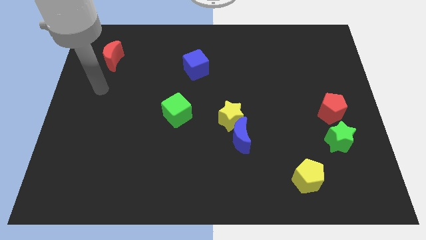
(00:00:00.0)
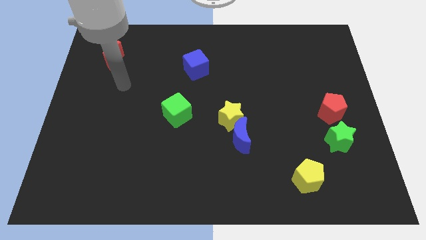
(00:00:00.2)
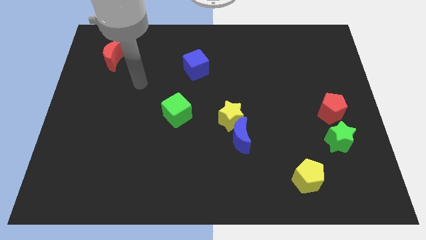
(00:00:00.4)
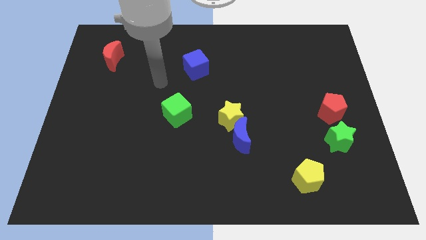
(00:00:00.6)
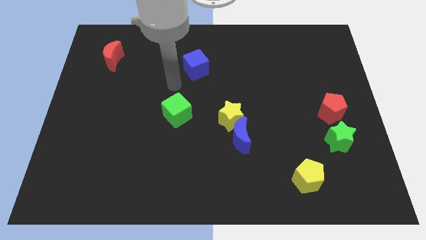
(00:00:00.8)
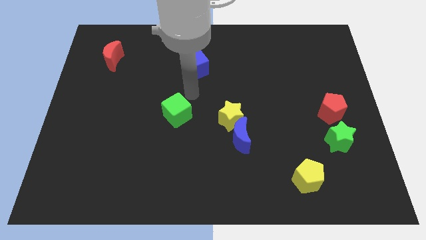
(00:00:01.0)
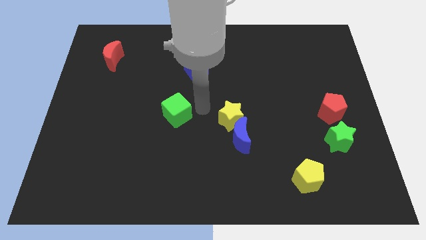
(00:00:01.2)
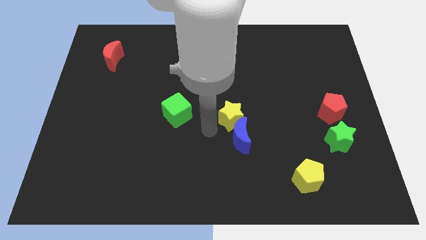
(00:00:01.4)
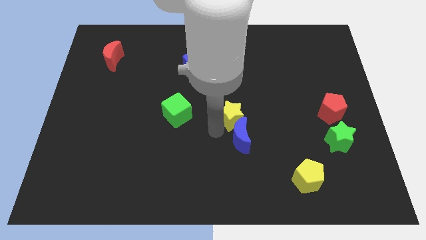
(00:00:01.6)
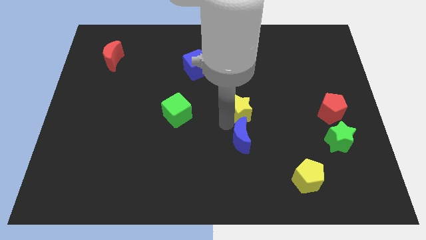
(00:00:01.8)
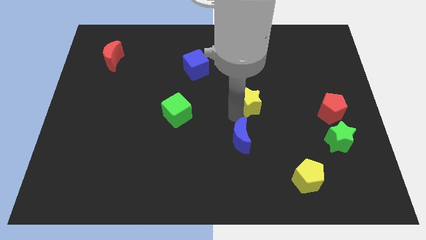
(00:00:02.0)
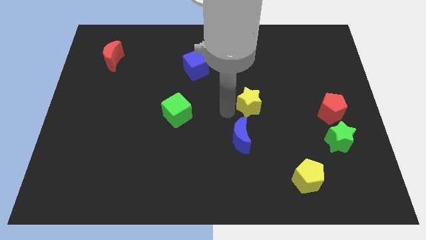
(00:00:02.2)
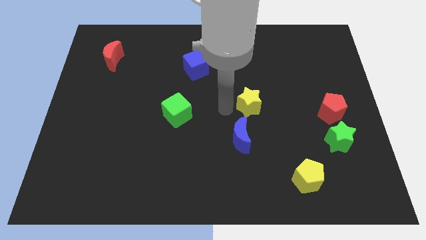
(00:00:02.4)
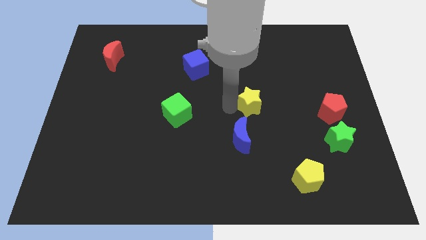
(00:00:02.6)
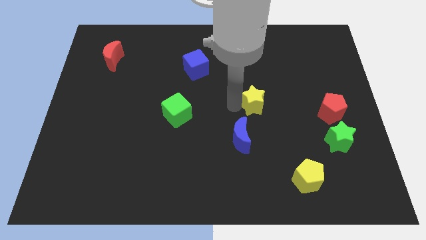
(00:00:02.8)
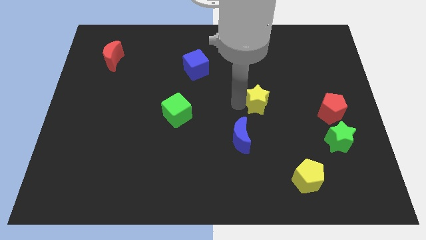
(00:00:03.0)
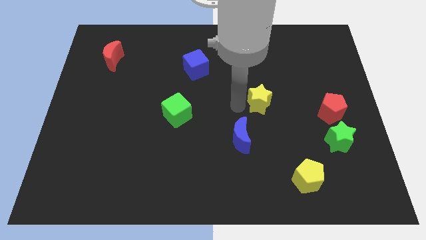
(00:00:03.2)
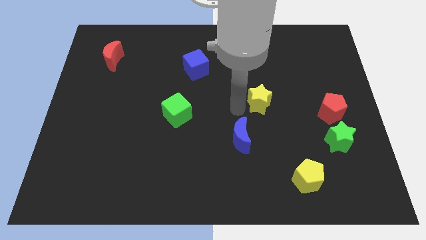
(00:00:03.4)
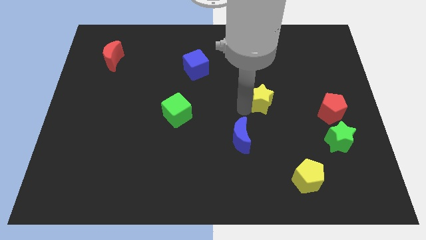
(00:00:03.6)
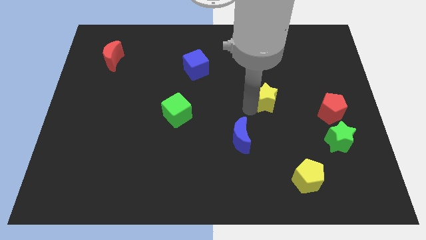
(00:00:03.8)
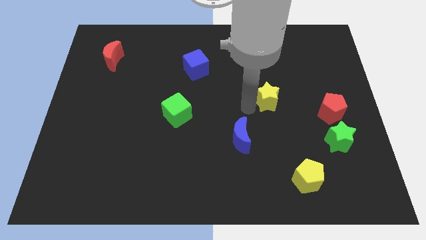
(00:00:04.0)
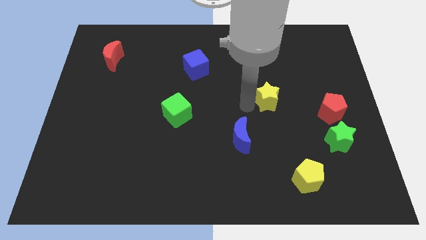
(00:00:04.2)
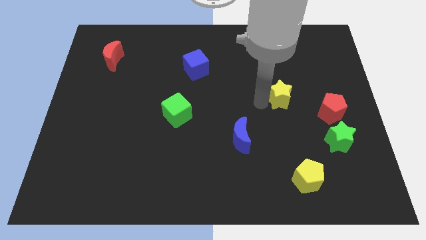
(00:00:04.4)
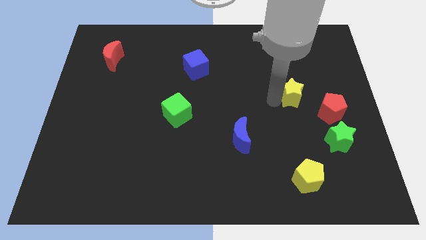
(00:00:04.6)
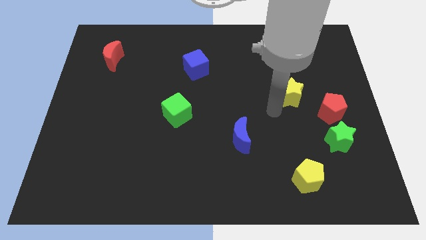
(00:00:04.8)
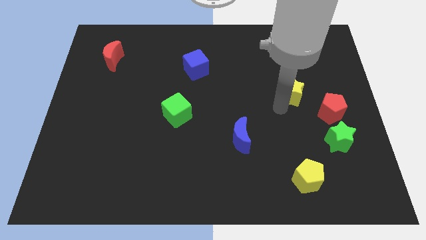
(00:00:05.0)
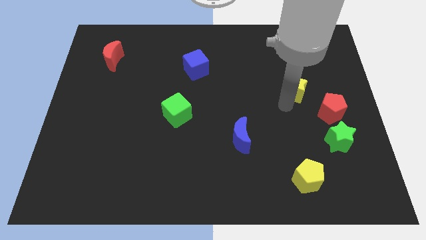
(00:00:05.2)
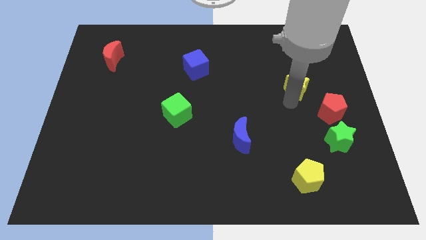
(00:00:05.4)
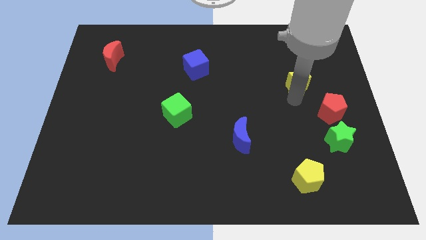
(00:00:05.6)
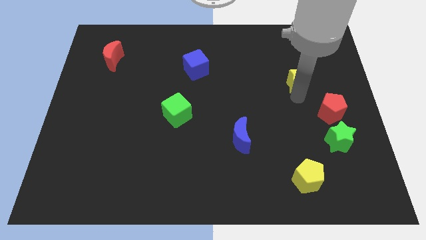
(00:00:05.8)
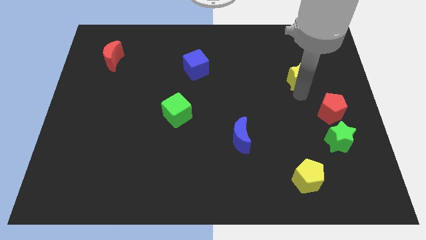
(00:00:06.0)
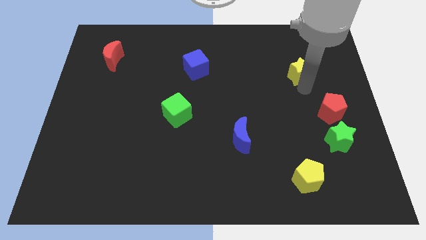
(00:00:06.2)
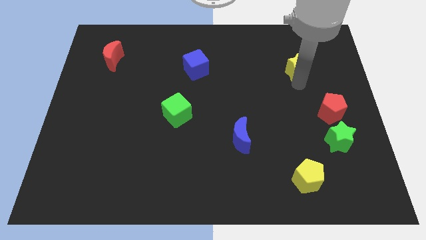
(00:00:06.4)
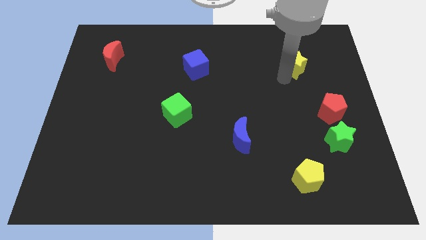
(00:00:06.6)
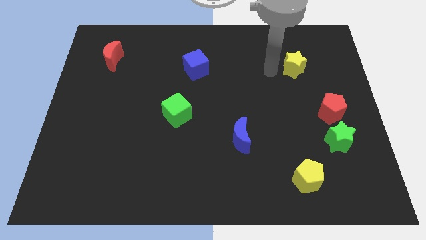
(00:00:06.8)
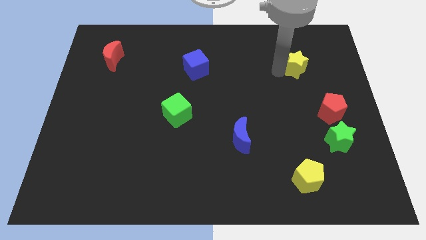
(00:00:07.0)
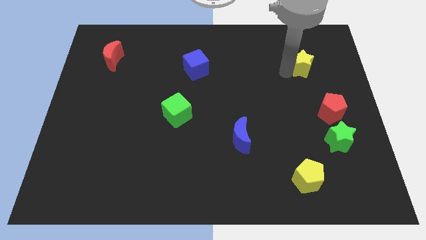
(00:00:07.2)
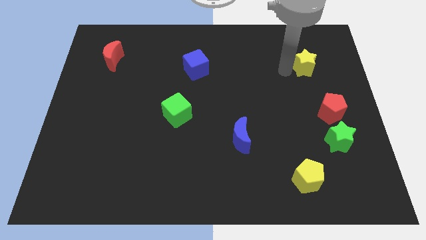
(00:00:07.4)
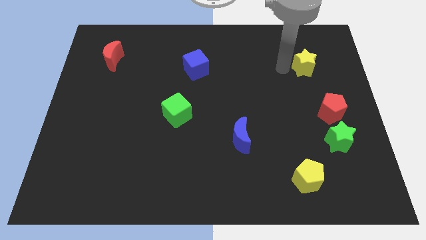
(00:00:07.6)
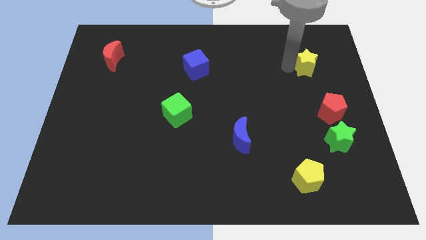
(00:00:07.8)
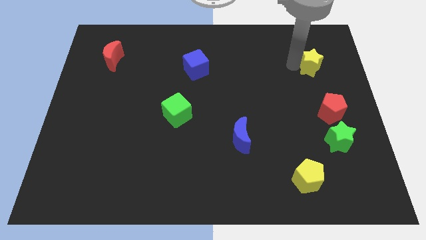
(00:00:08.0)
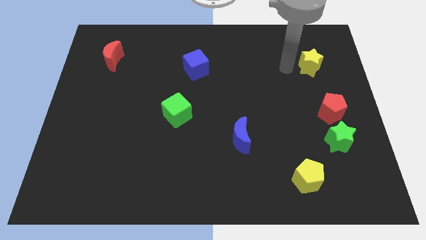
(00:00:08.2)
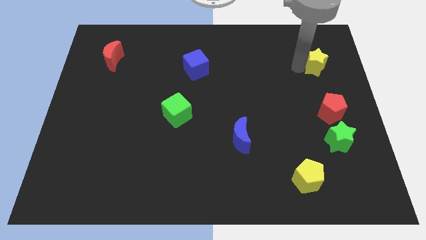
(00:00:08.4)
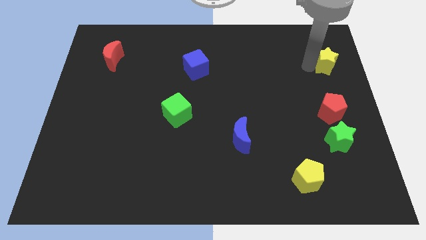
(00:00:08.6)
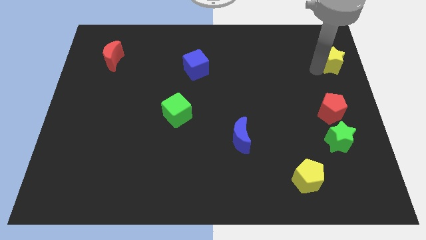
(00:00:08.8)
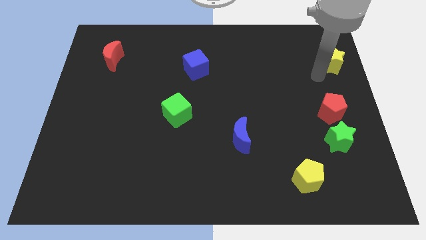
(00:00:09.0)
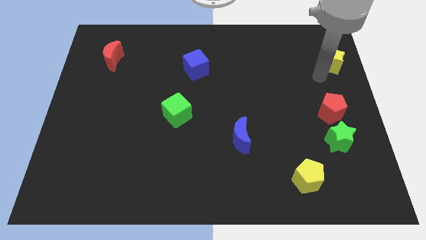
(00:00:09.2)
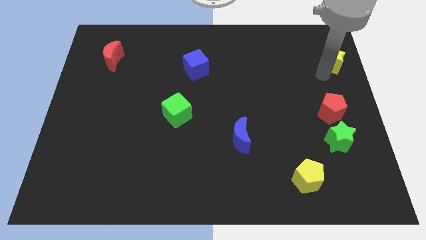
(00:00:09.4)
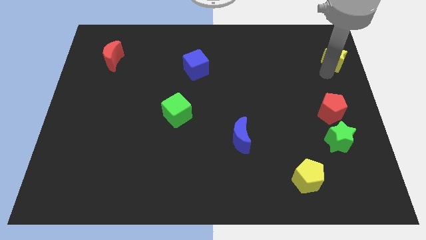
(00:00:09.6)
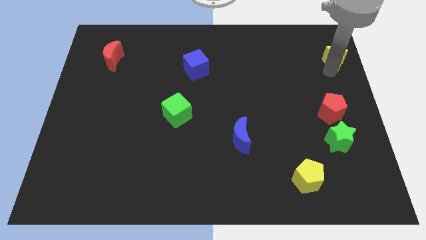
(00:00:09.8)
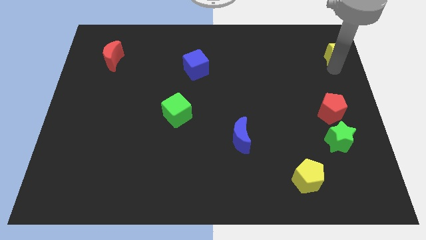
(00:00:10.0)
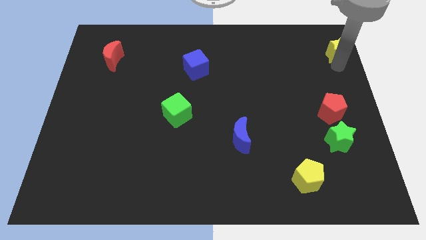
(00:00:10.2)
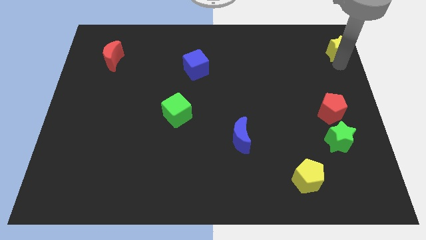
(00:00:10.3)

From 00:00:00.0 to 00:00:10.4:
move the yellow star to the top right corner
